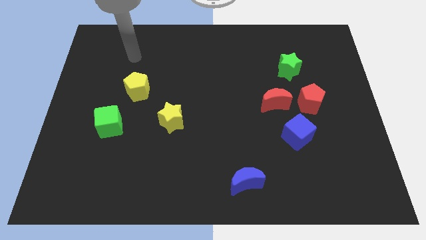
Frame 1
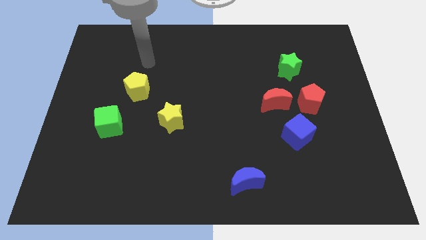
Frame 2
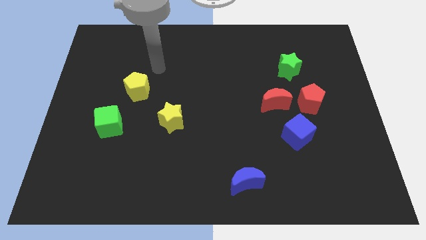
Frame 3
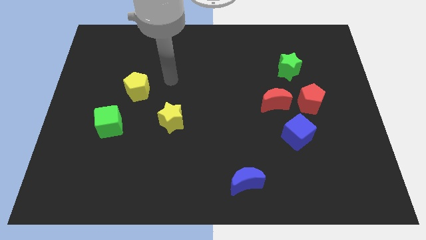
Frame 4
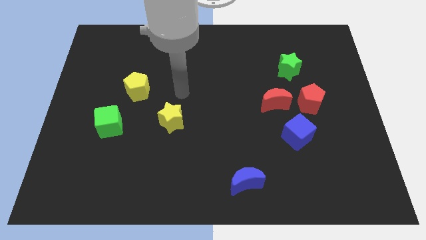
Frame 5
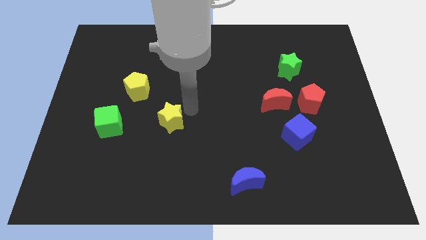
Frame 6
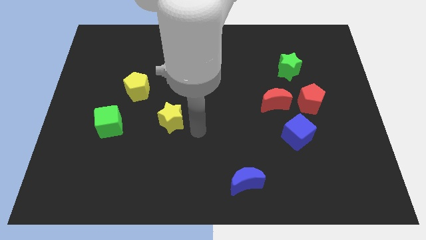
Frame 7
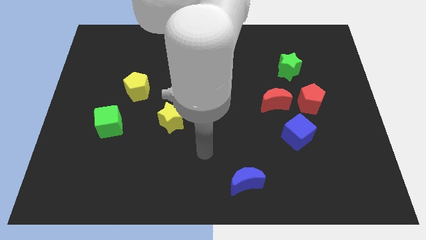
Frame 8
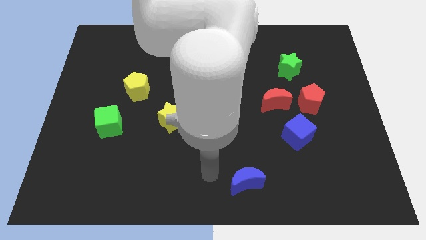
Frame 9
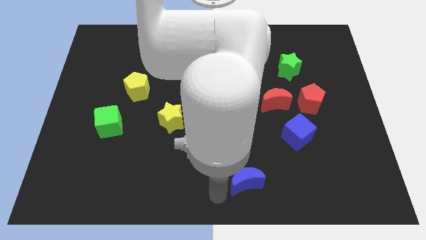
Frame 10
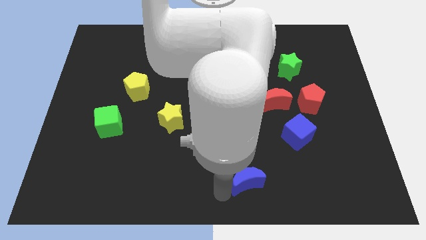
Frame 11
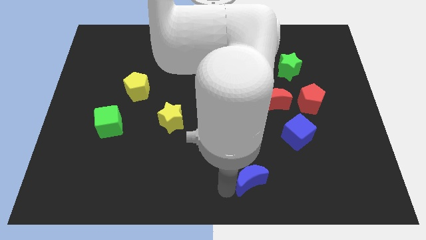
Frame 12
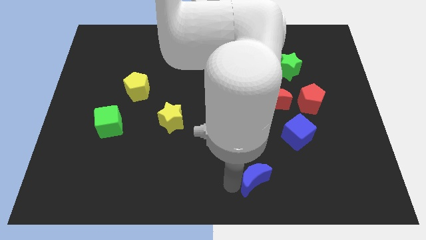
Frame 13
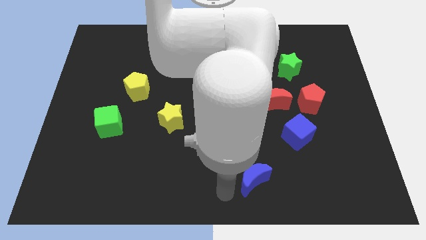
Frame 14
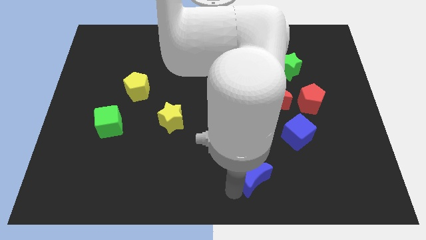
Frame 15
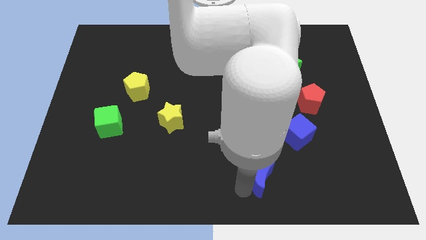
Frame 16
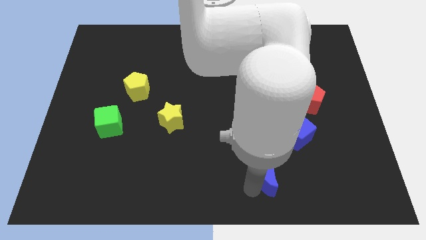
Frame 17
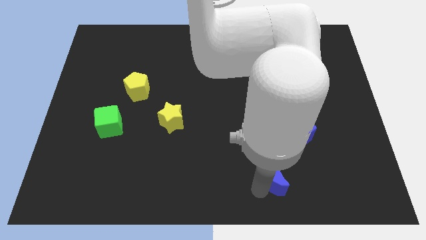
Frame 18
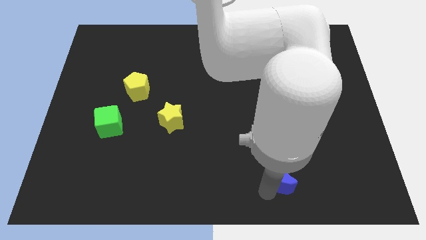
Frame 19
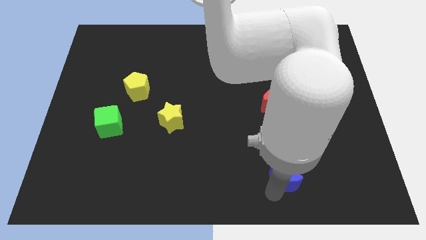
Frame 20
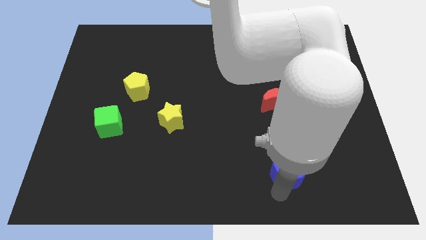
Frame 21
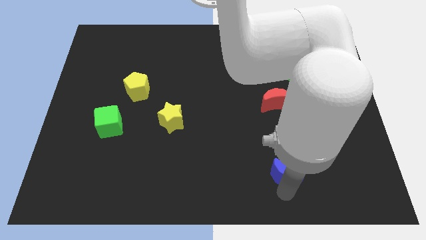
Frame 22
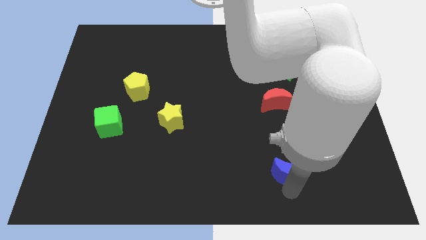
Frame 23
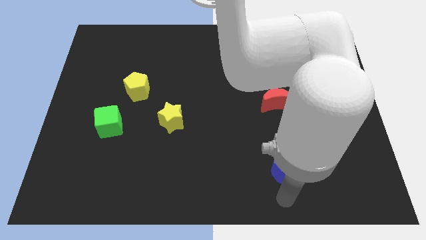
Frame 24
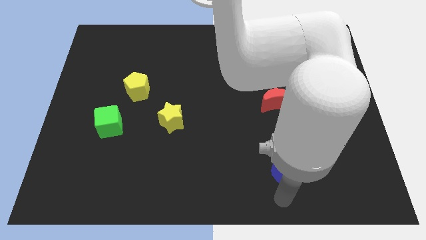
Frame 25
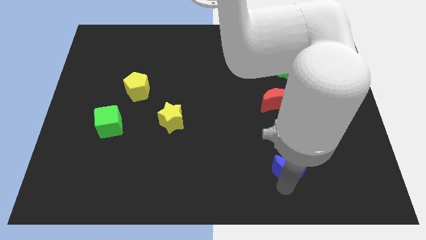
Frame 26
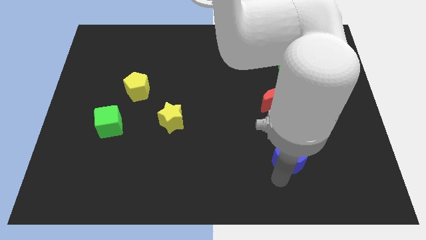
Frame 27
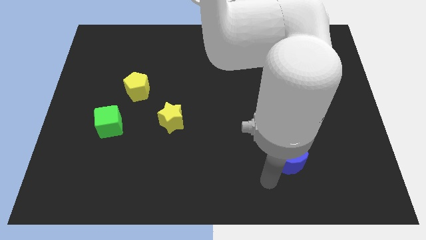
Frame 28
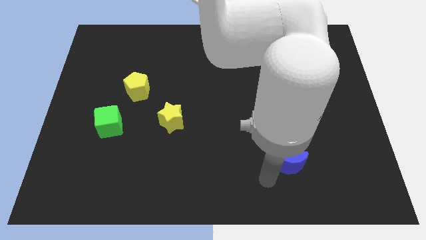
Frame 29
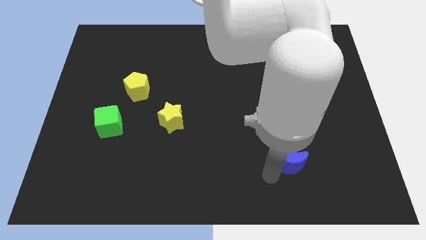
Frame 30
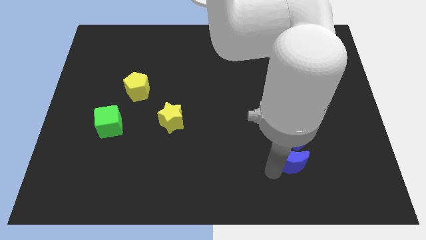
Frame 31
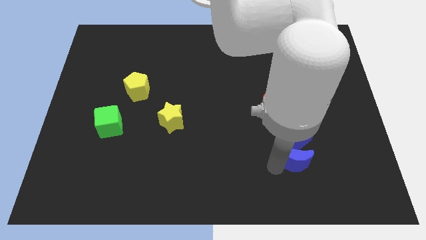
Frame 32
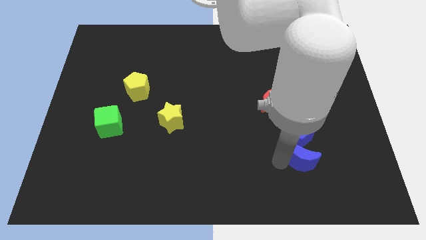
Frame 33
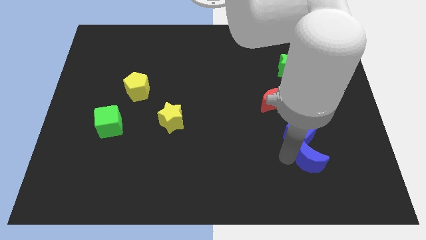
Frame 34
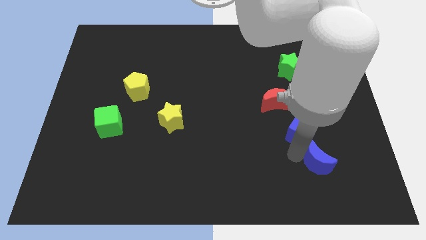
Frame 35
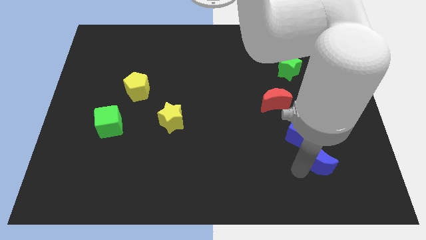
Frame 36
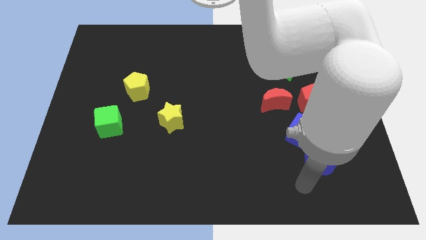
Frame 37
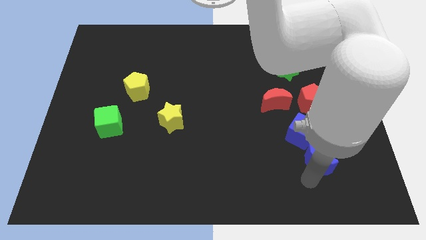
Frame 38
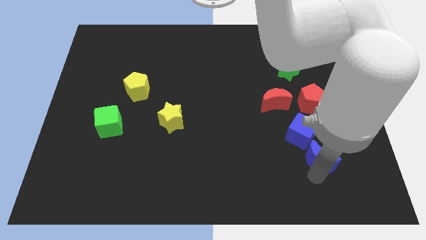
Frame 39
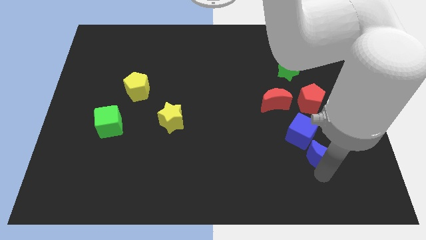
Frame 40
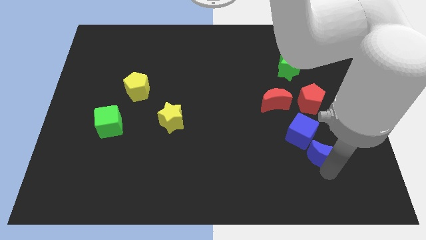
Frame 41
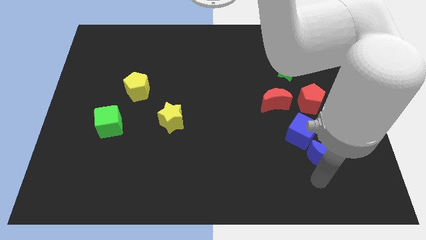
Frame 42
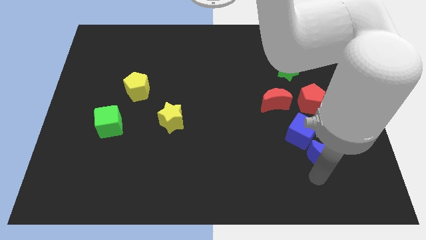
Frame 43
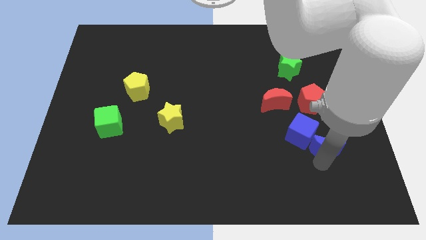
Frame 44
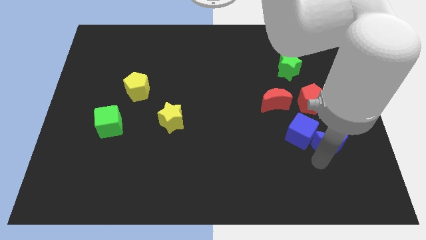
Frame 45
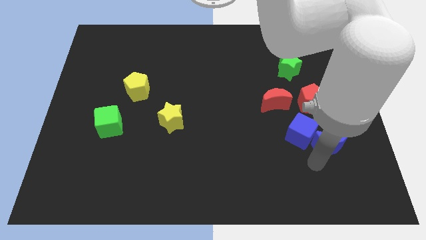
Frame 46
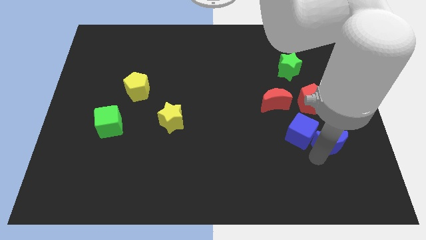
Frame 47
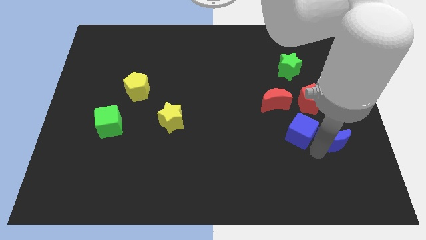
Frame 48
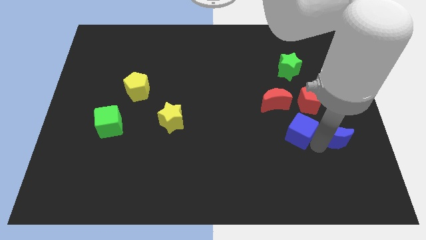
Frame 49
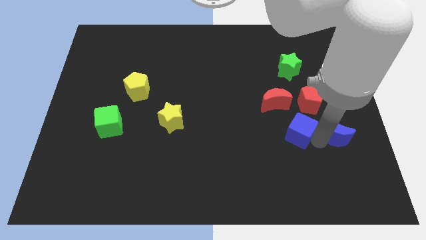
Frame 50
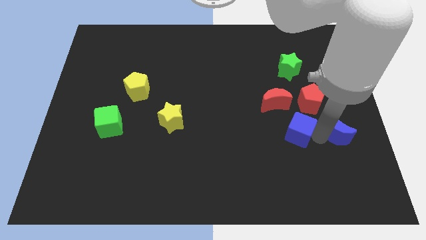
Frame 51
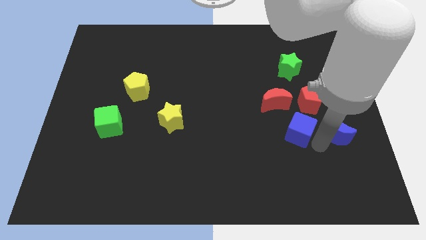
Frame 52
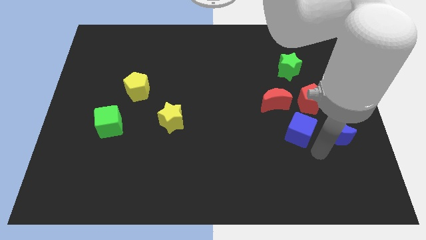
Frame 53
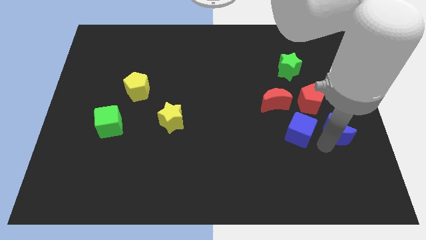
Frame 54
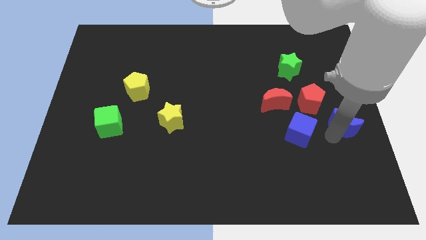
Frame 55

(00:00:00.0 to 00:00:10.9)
put the blue moon to the right side of the board

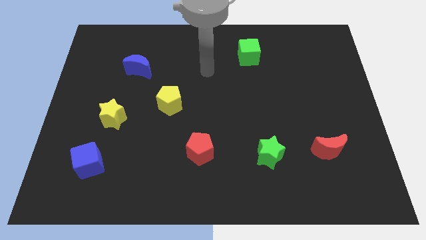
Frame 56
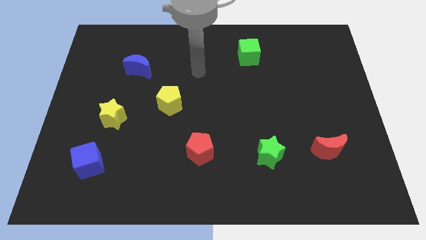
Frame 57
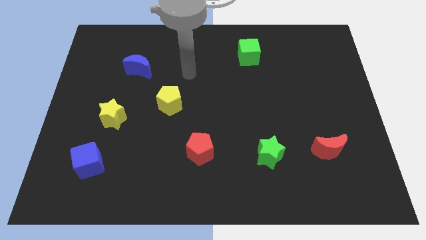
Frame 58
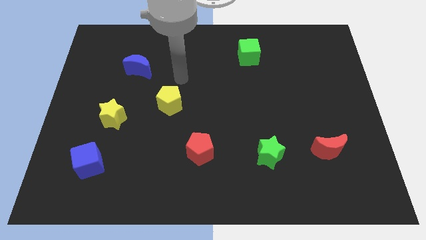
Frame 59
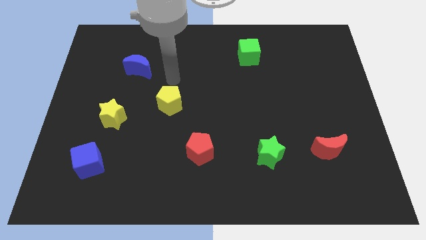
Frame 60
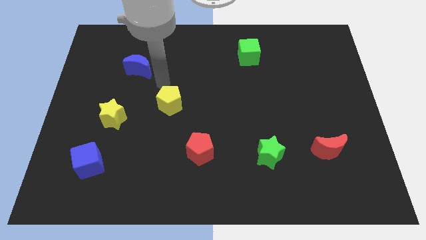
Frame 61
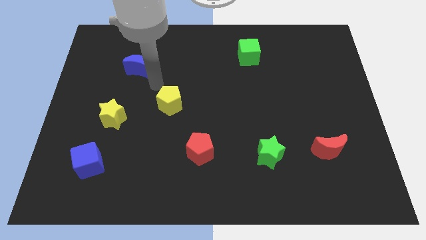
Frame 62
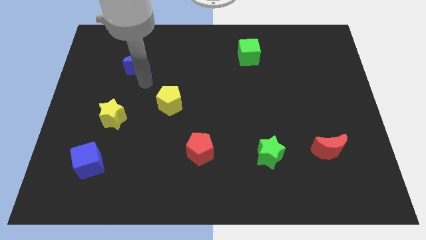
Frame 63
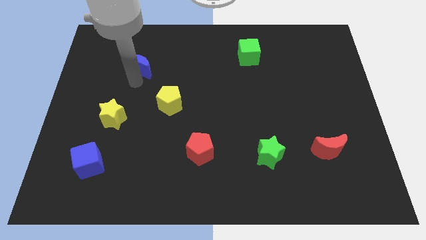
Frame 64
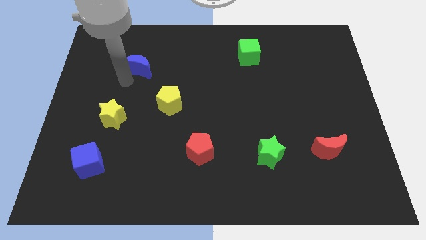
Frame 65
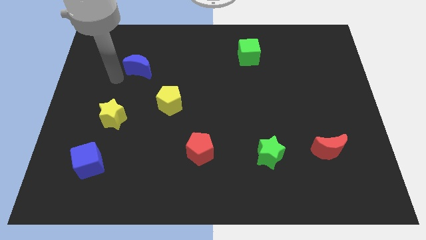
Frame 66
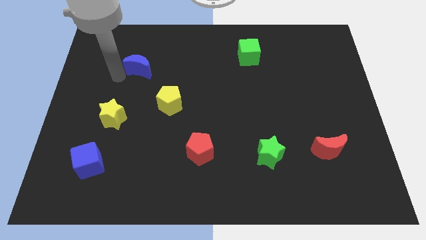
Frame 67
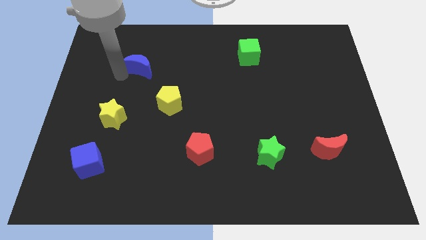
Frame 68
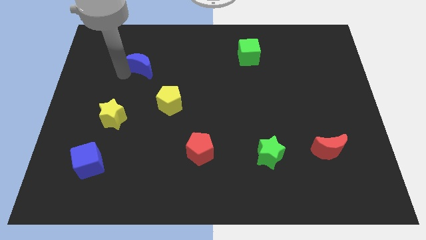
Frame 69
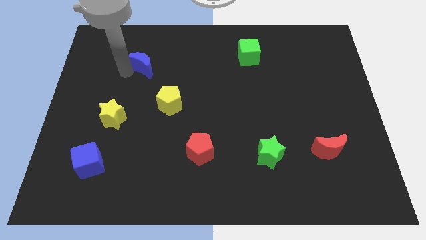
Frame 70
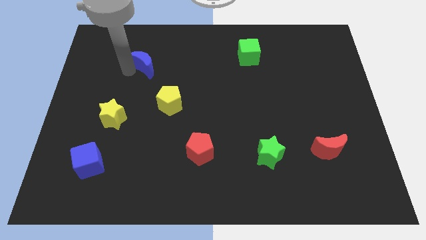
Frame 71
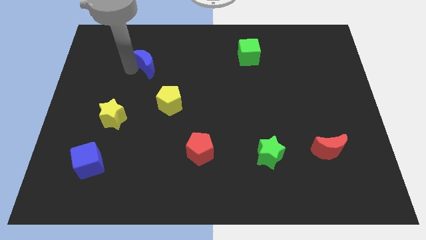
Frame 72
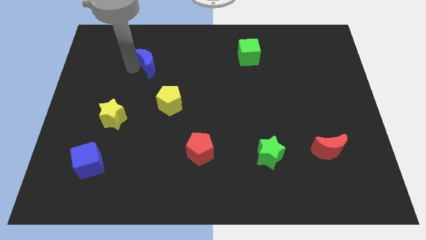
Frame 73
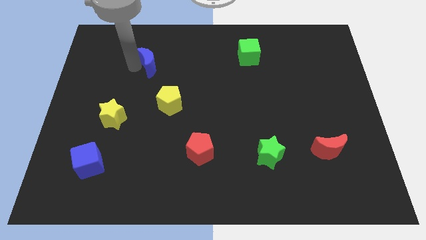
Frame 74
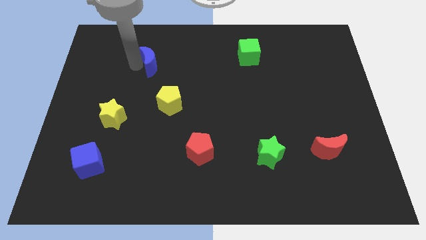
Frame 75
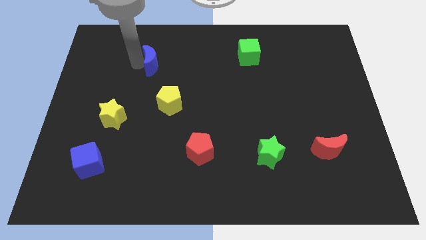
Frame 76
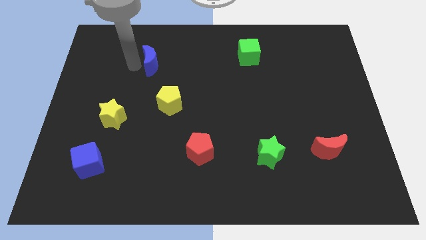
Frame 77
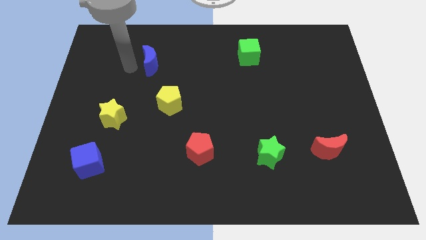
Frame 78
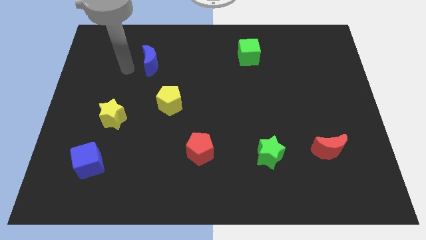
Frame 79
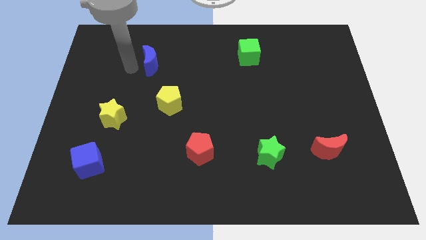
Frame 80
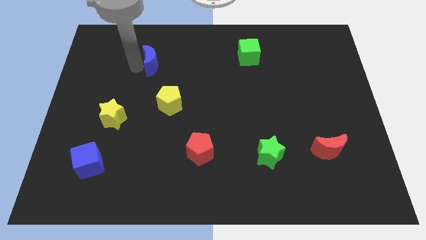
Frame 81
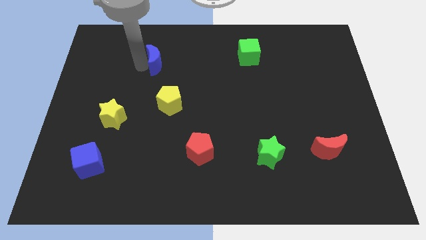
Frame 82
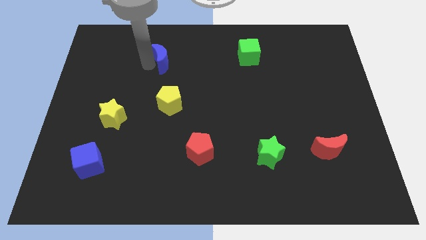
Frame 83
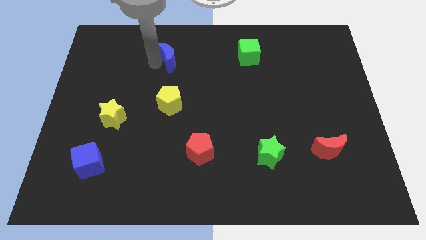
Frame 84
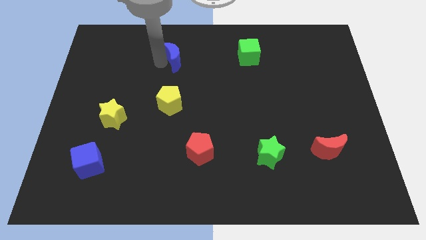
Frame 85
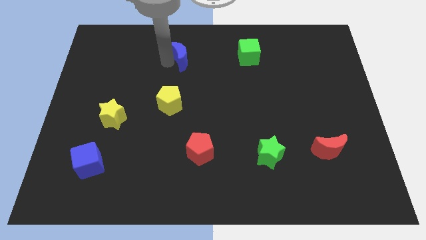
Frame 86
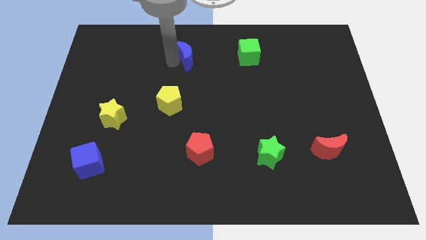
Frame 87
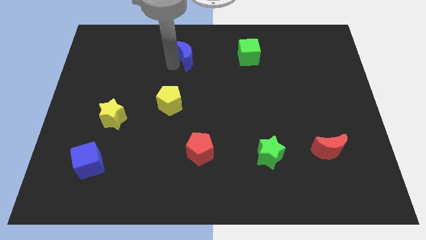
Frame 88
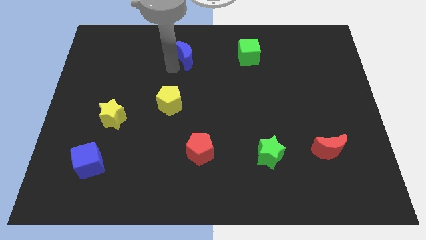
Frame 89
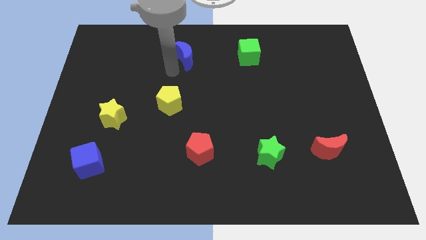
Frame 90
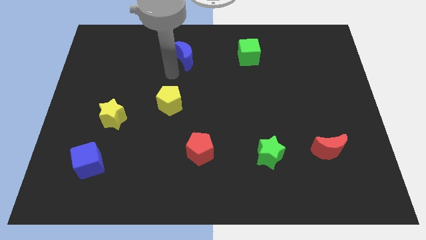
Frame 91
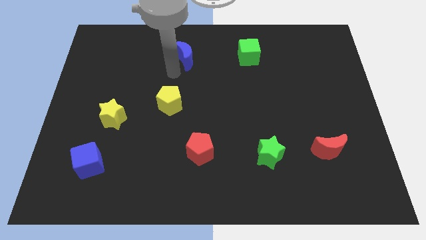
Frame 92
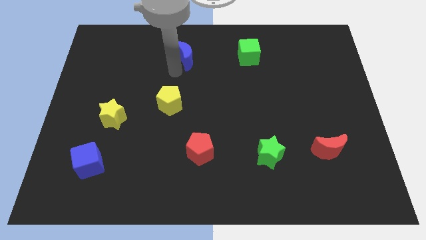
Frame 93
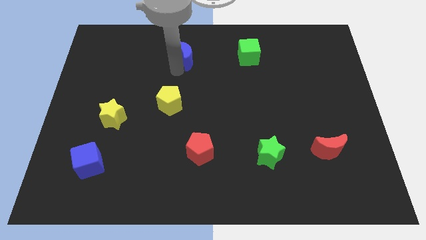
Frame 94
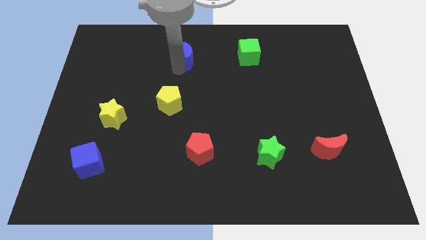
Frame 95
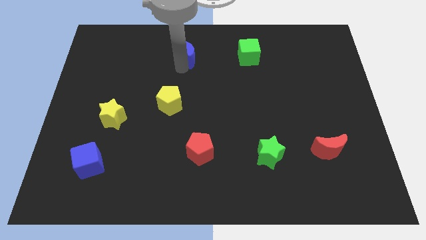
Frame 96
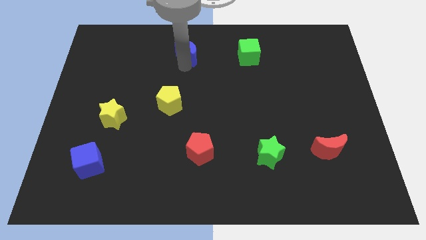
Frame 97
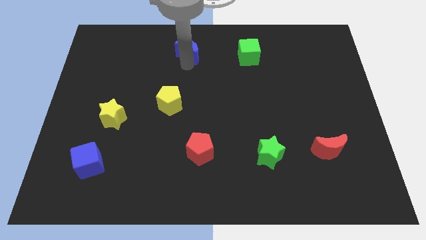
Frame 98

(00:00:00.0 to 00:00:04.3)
push the blue moon to the towards your base
